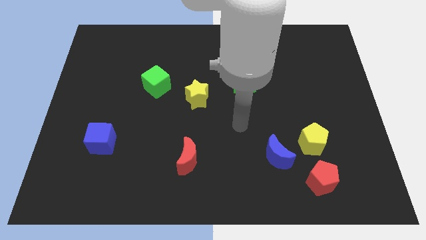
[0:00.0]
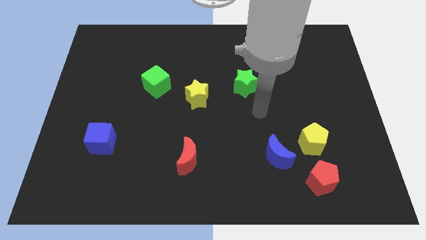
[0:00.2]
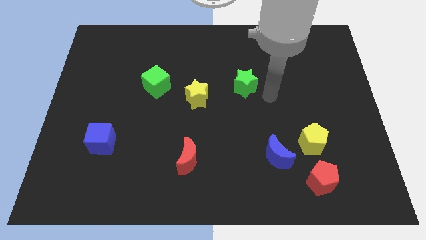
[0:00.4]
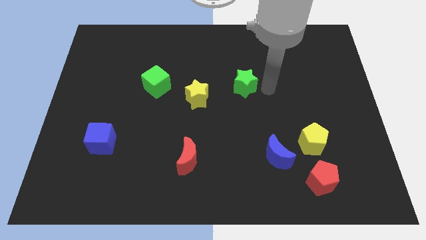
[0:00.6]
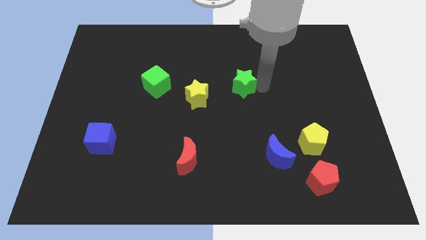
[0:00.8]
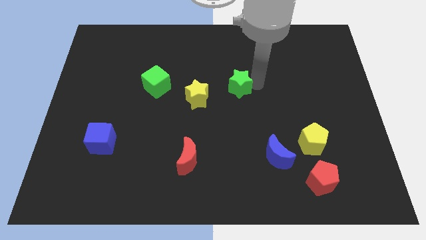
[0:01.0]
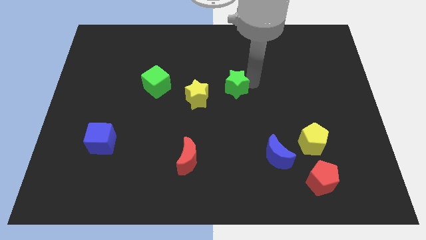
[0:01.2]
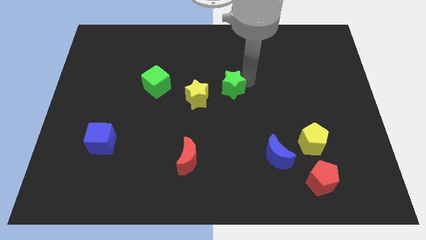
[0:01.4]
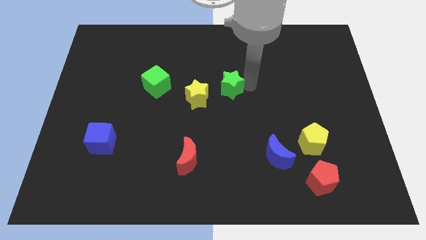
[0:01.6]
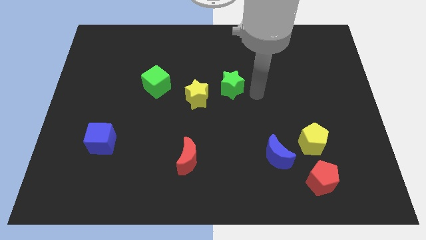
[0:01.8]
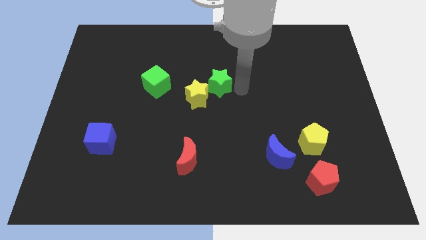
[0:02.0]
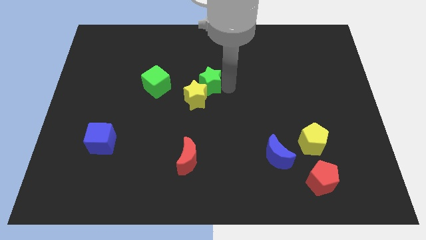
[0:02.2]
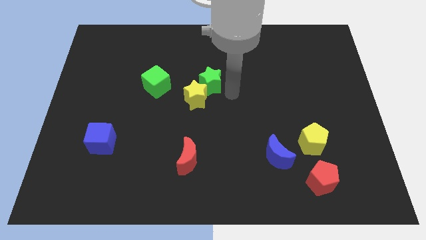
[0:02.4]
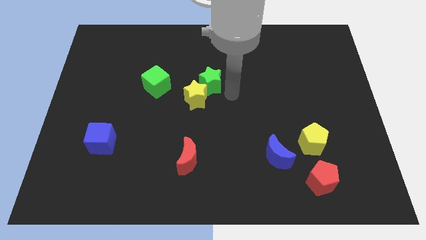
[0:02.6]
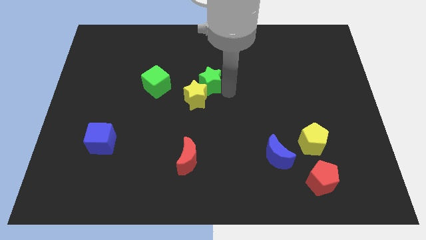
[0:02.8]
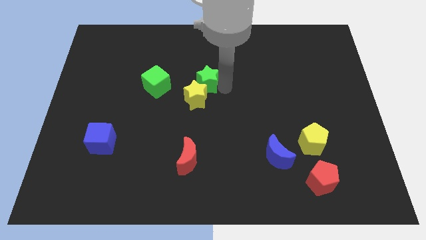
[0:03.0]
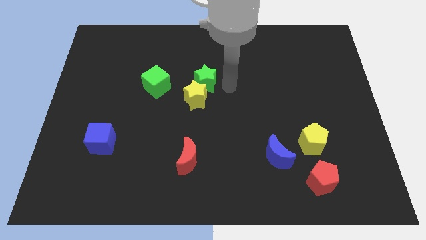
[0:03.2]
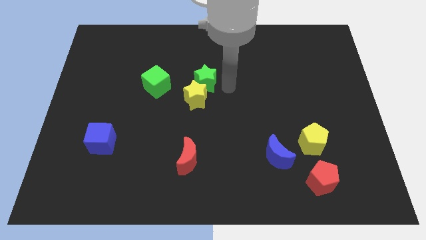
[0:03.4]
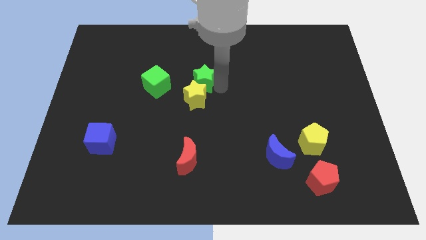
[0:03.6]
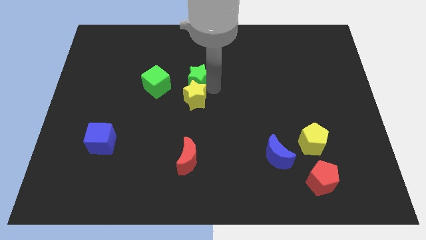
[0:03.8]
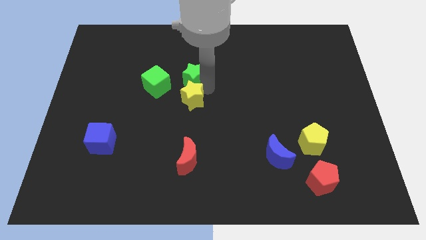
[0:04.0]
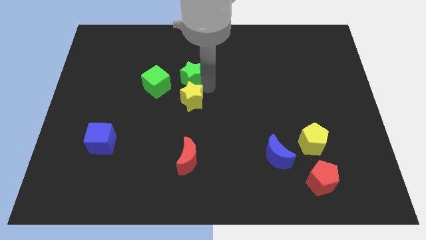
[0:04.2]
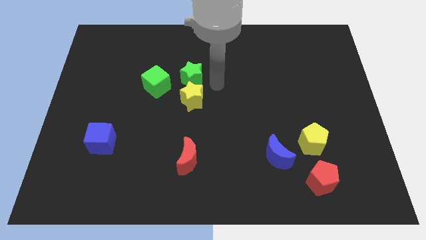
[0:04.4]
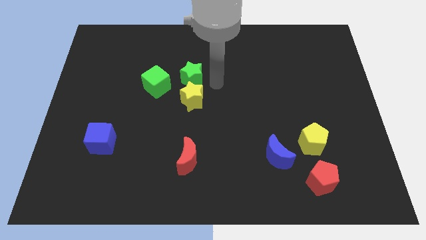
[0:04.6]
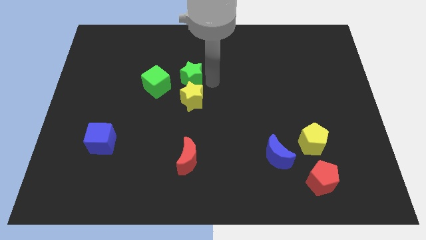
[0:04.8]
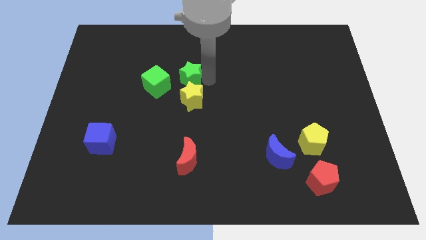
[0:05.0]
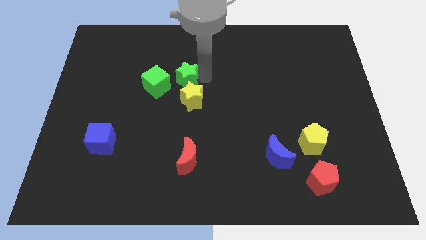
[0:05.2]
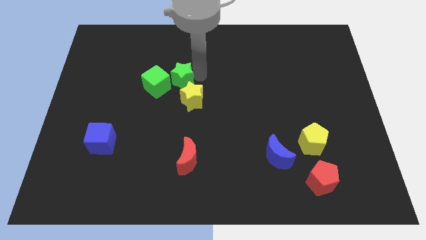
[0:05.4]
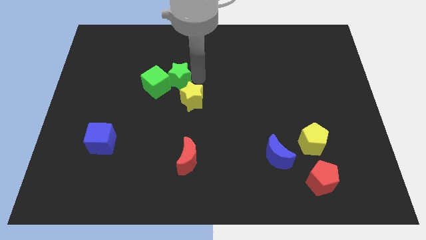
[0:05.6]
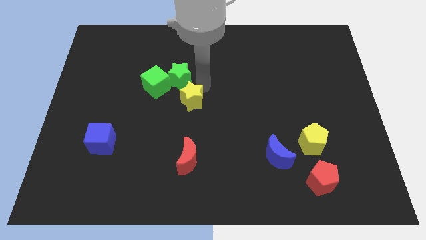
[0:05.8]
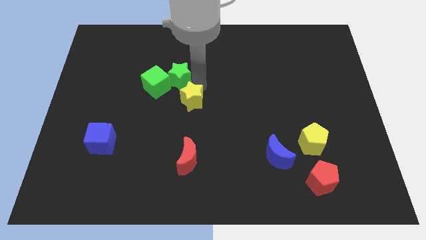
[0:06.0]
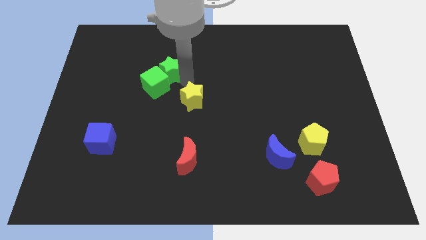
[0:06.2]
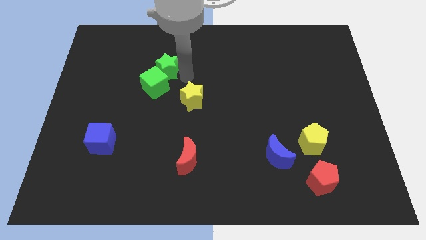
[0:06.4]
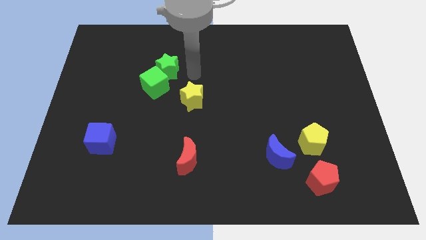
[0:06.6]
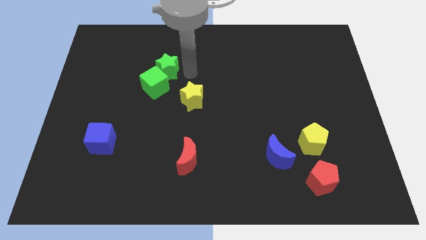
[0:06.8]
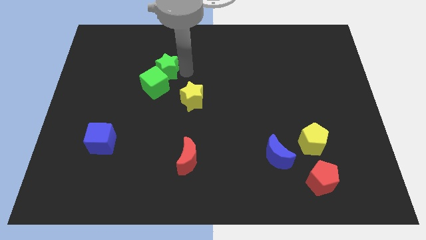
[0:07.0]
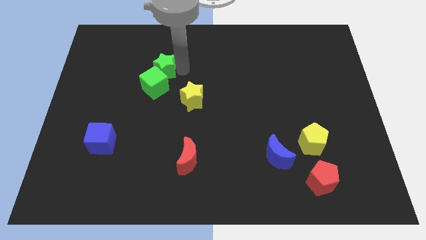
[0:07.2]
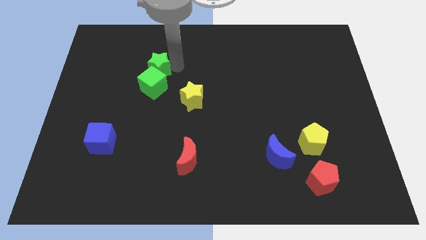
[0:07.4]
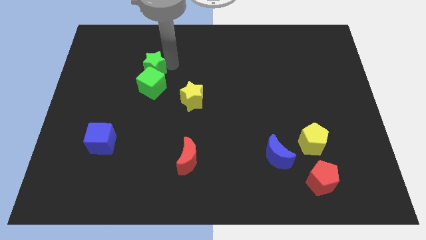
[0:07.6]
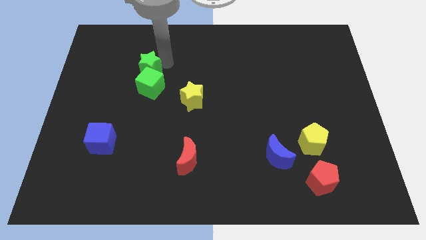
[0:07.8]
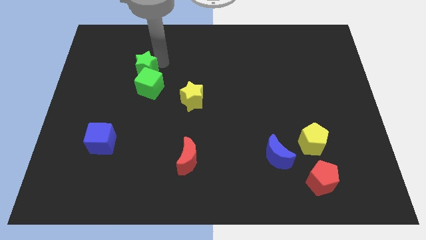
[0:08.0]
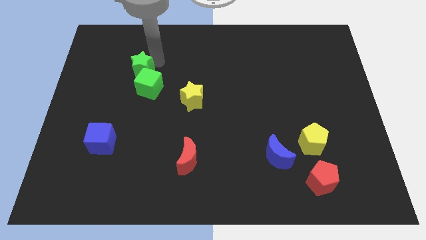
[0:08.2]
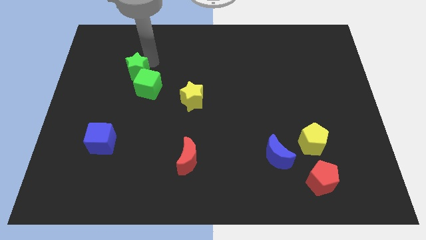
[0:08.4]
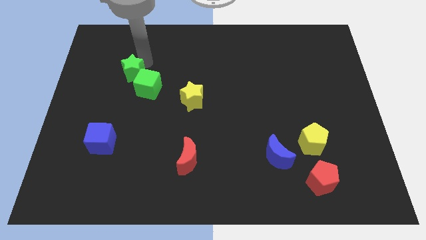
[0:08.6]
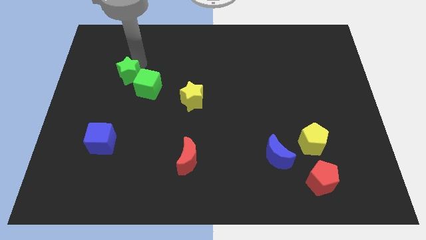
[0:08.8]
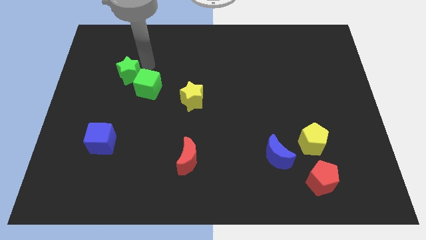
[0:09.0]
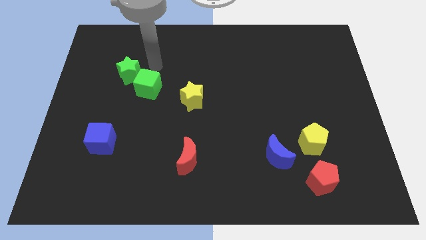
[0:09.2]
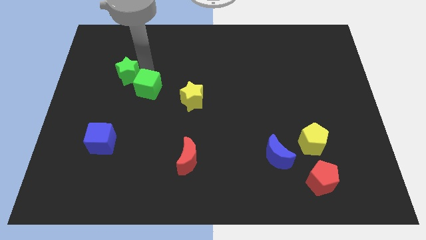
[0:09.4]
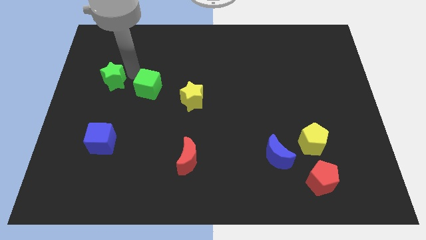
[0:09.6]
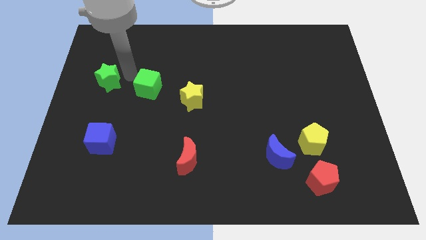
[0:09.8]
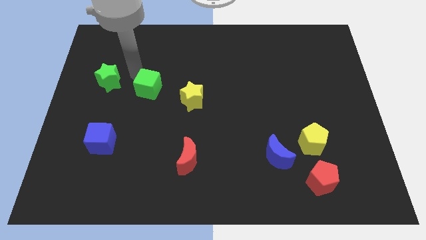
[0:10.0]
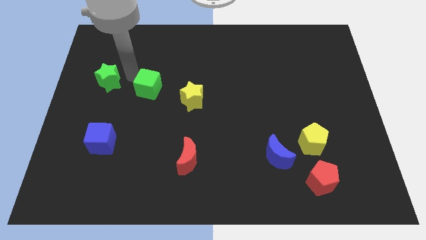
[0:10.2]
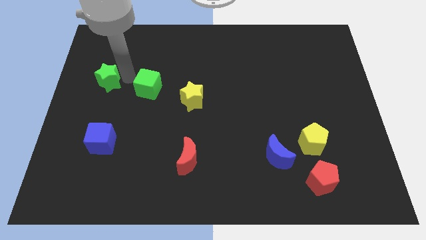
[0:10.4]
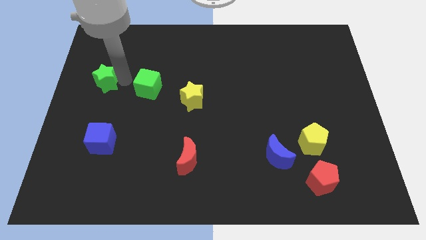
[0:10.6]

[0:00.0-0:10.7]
push the green star to the center left

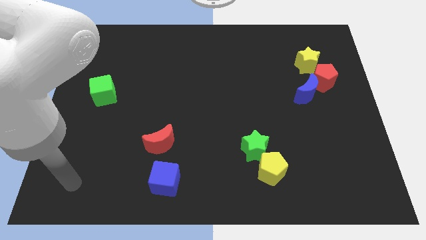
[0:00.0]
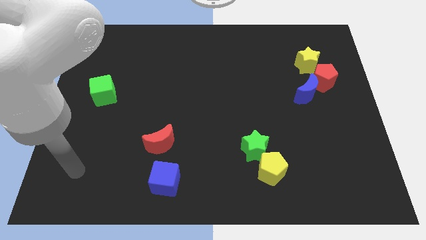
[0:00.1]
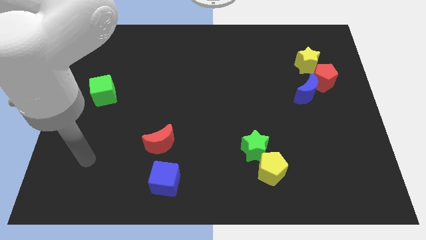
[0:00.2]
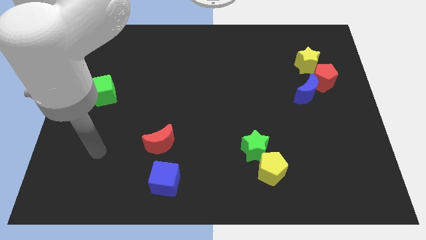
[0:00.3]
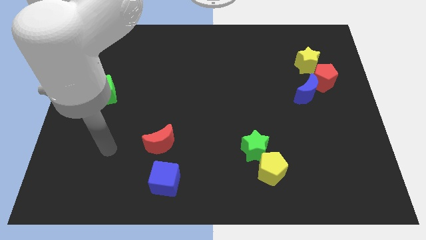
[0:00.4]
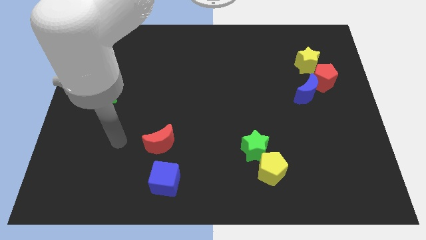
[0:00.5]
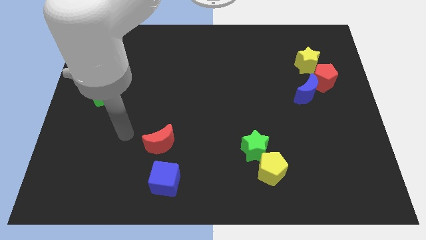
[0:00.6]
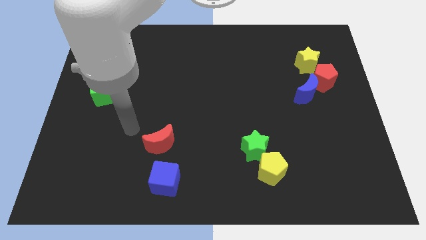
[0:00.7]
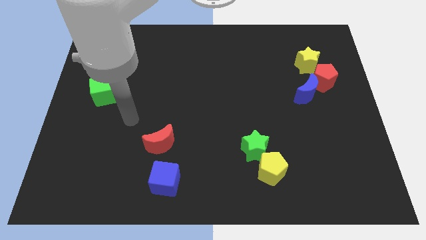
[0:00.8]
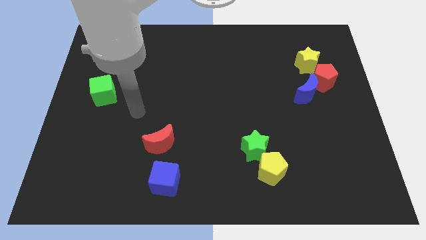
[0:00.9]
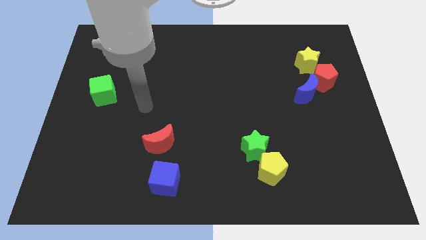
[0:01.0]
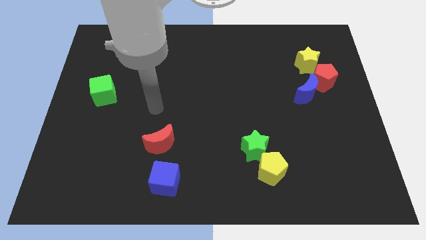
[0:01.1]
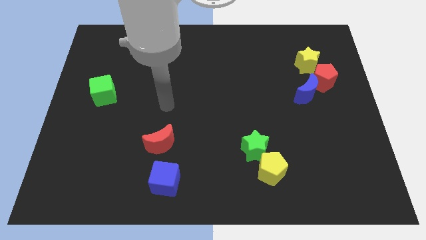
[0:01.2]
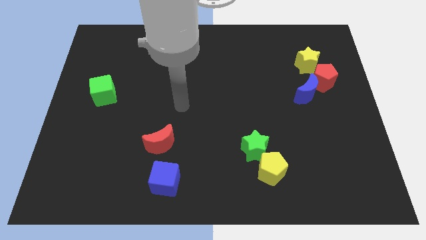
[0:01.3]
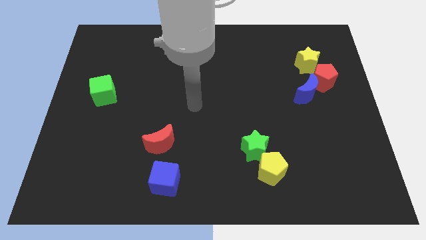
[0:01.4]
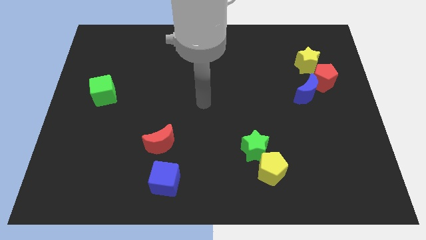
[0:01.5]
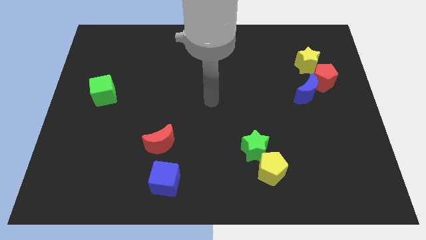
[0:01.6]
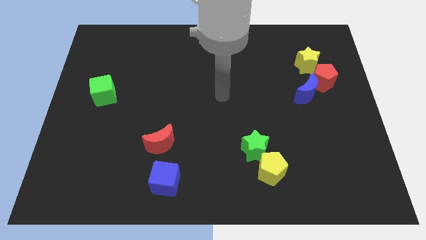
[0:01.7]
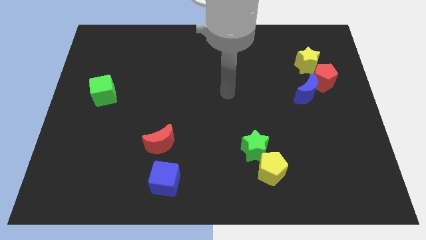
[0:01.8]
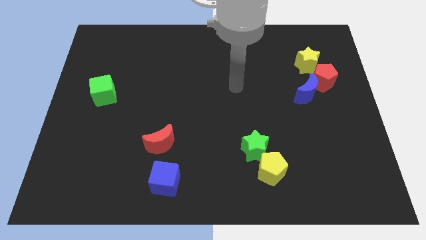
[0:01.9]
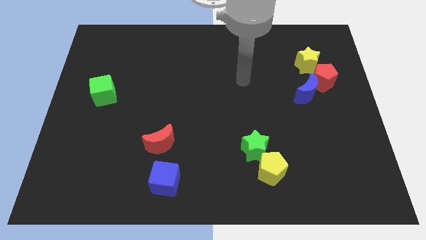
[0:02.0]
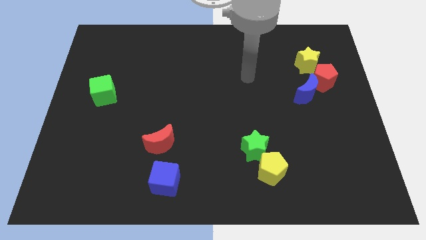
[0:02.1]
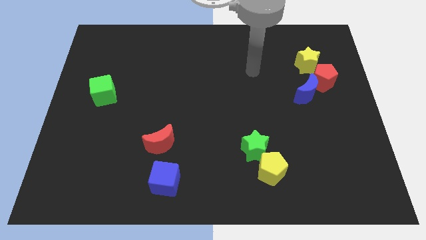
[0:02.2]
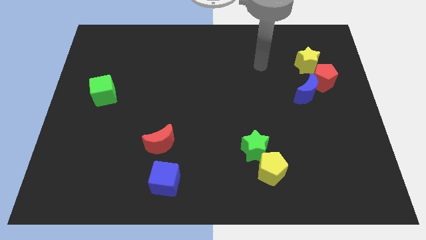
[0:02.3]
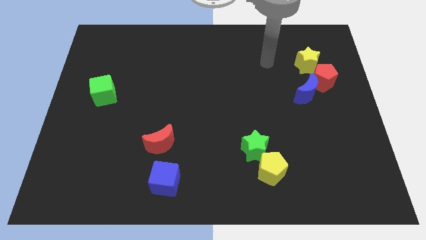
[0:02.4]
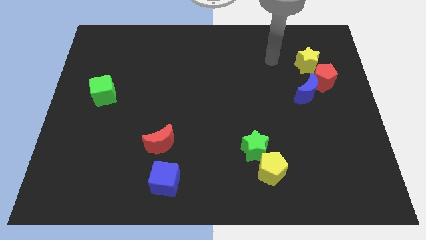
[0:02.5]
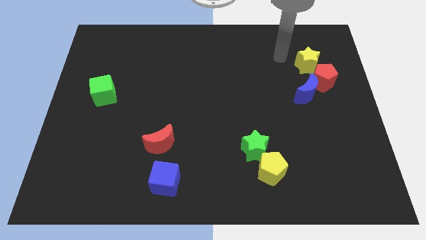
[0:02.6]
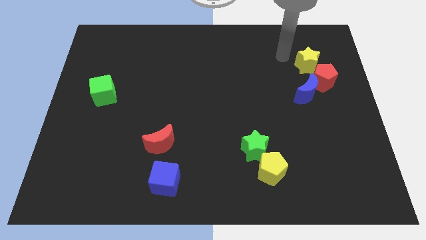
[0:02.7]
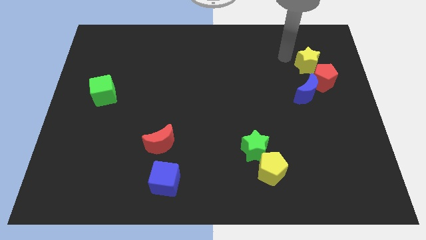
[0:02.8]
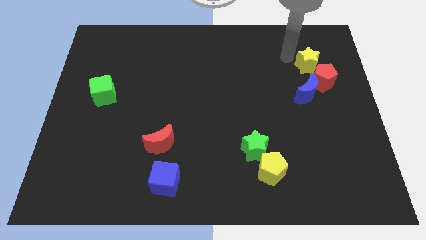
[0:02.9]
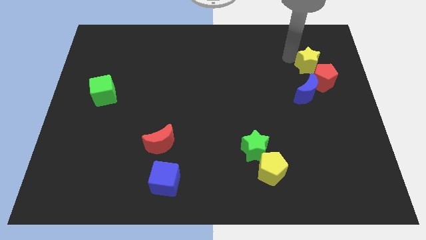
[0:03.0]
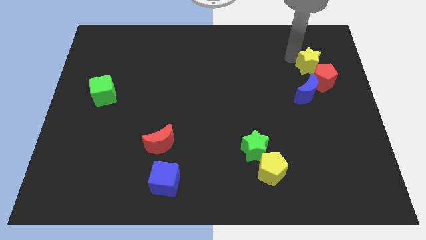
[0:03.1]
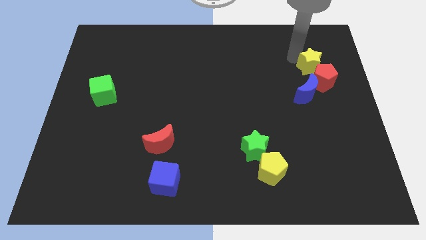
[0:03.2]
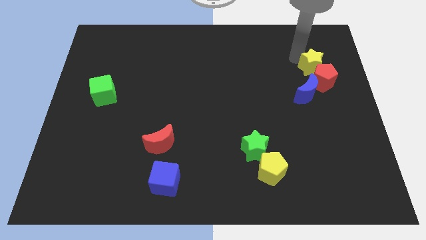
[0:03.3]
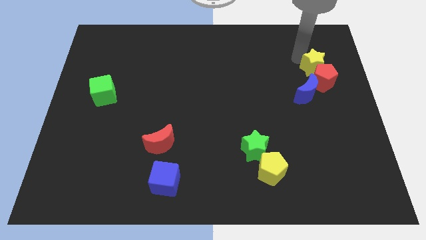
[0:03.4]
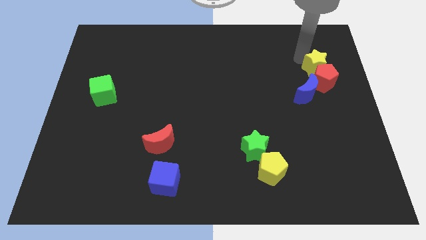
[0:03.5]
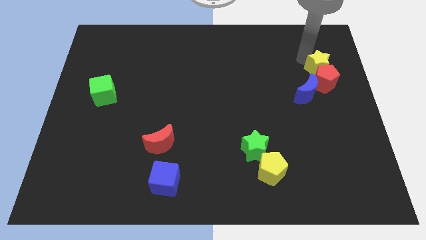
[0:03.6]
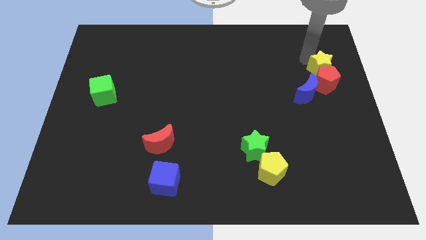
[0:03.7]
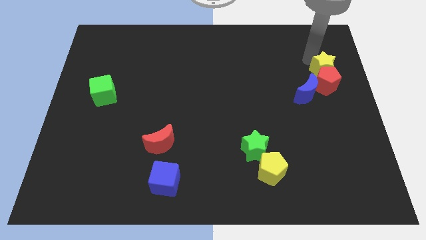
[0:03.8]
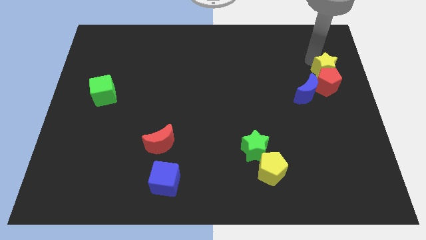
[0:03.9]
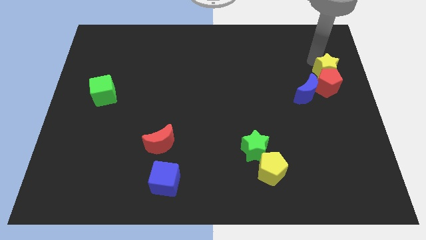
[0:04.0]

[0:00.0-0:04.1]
put the yellow star to the center right
